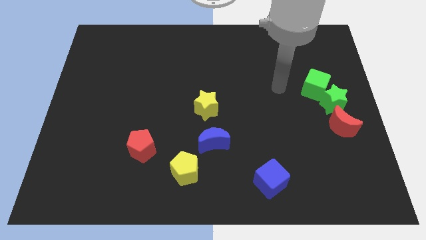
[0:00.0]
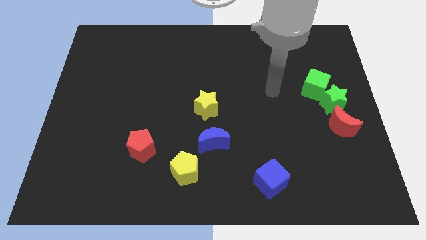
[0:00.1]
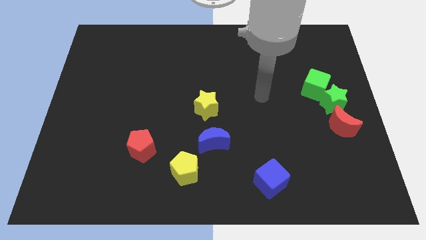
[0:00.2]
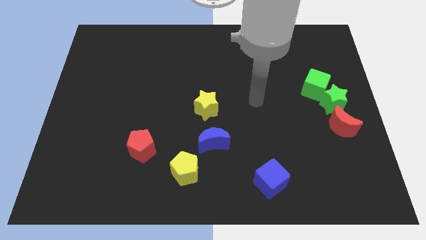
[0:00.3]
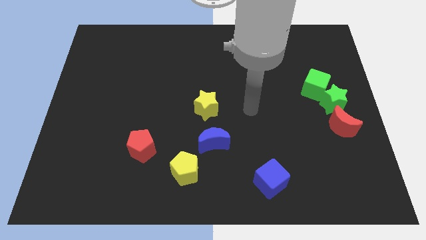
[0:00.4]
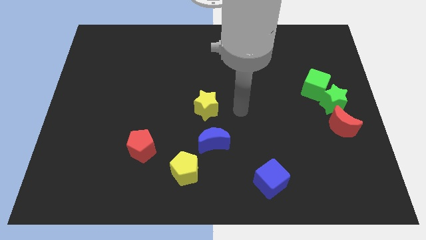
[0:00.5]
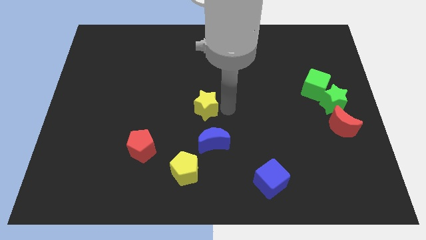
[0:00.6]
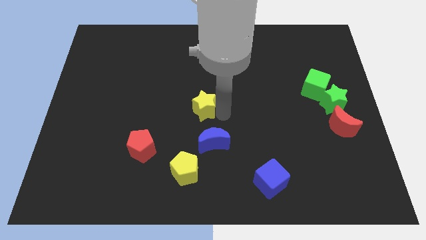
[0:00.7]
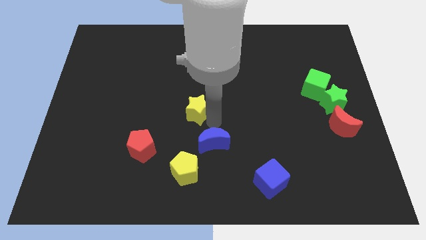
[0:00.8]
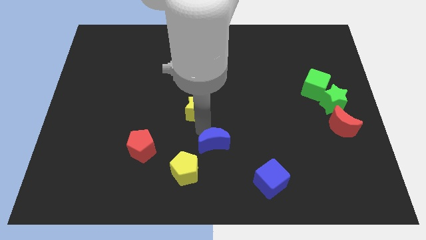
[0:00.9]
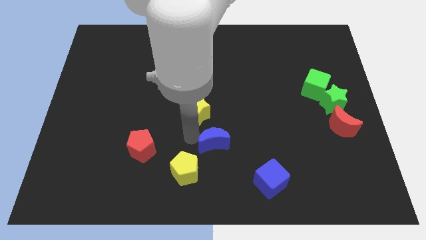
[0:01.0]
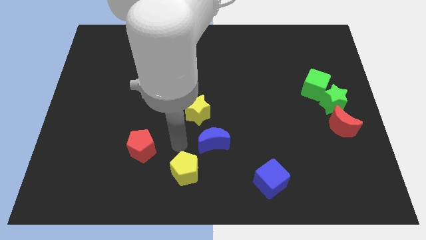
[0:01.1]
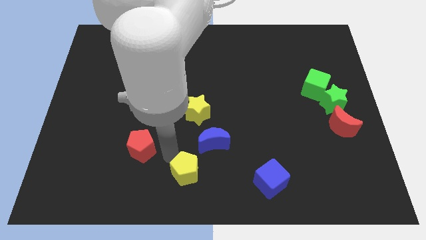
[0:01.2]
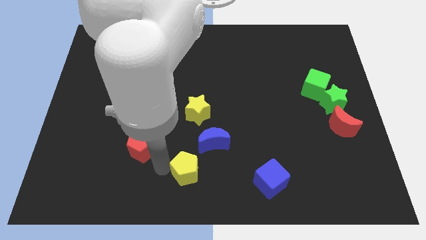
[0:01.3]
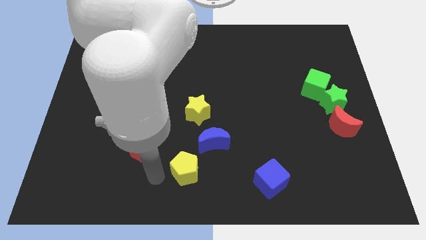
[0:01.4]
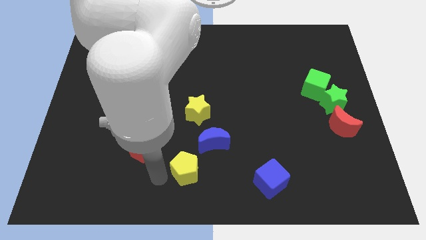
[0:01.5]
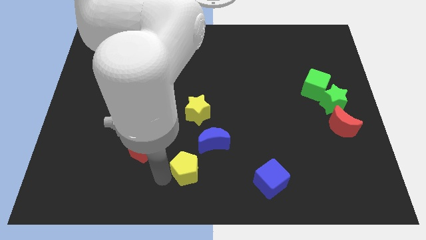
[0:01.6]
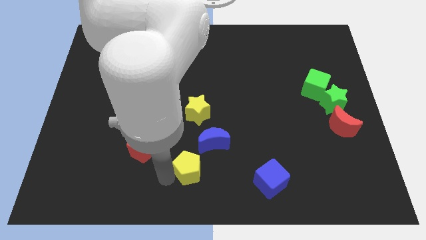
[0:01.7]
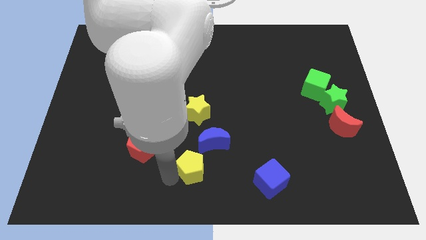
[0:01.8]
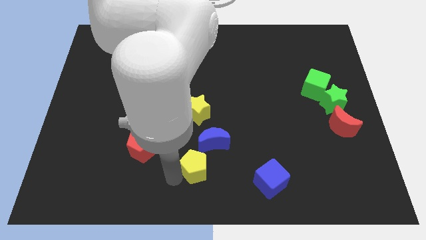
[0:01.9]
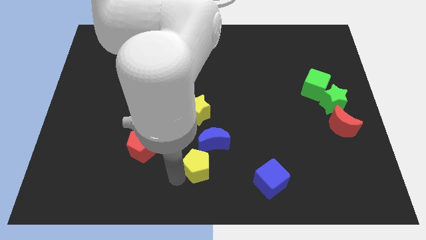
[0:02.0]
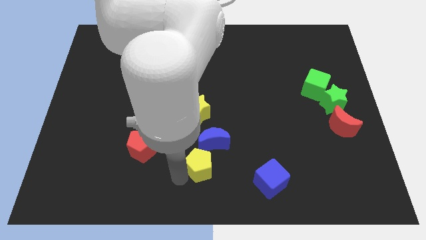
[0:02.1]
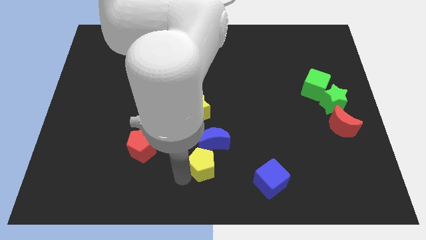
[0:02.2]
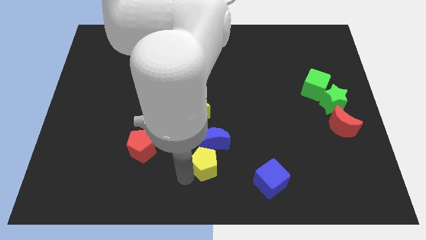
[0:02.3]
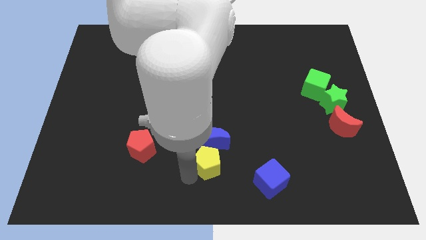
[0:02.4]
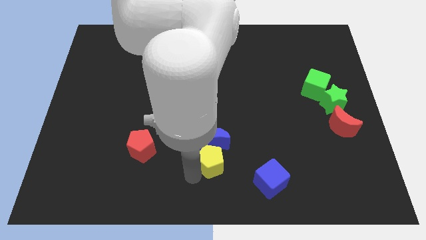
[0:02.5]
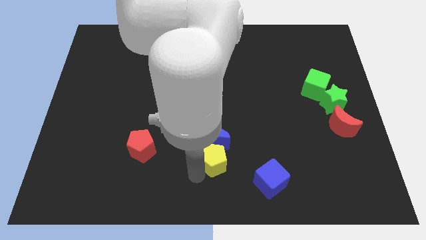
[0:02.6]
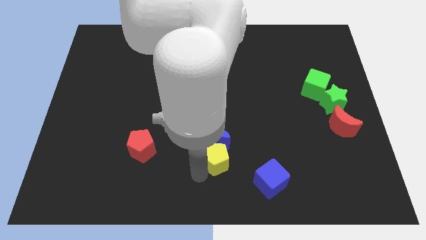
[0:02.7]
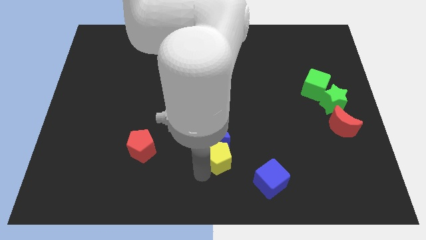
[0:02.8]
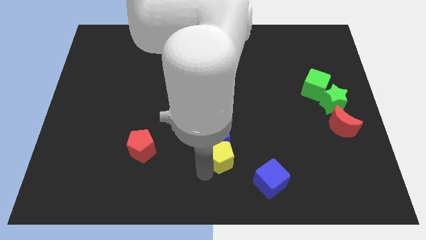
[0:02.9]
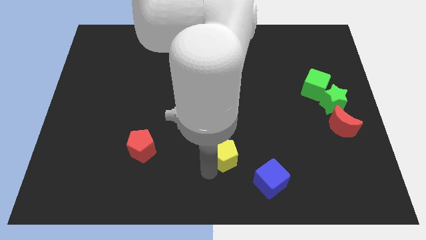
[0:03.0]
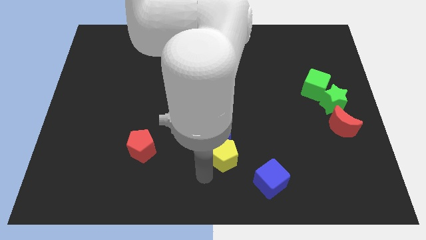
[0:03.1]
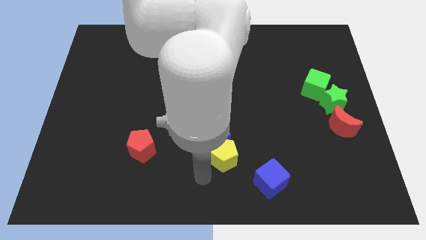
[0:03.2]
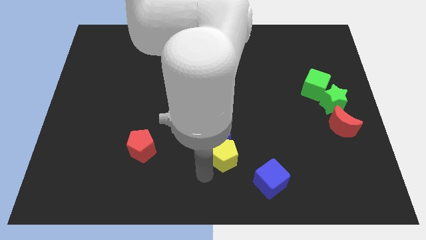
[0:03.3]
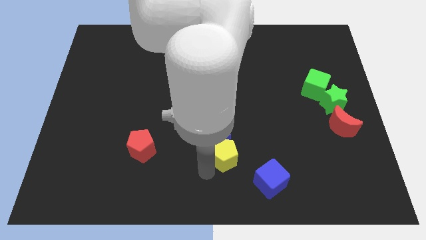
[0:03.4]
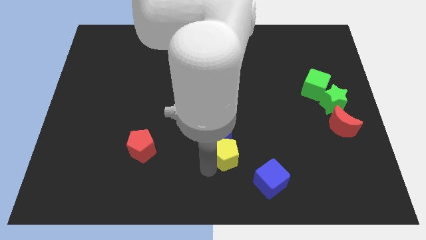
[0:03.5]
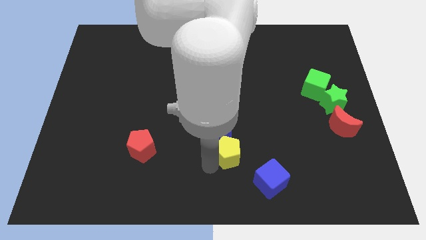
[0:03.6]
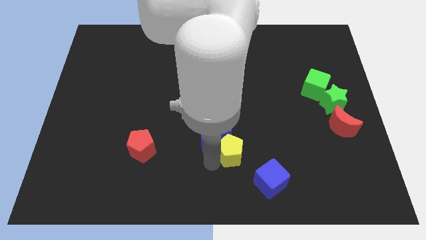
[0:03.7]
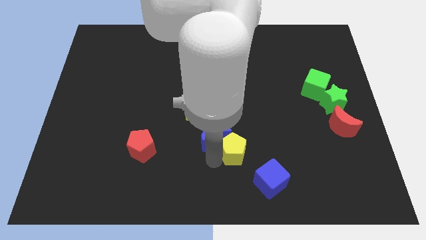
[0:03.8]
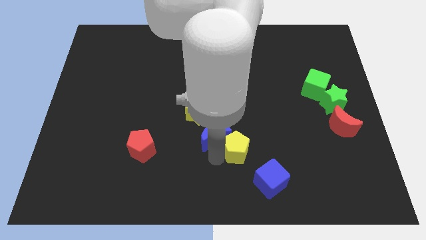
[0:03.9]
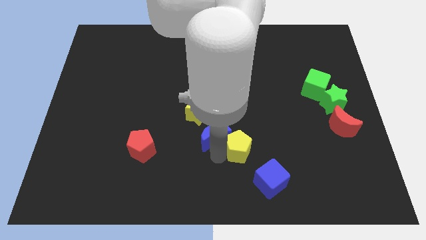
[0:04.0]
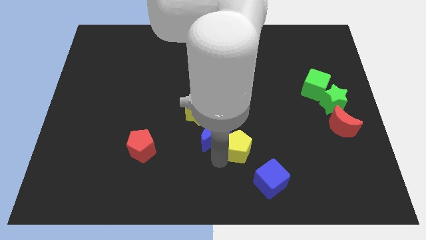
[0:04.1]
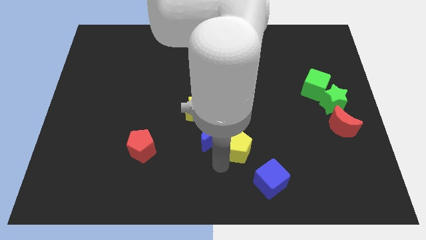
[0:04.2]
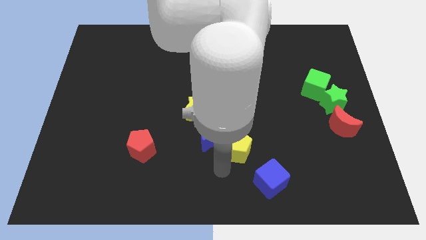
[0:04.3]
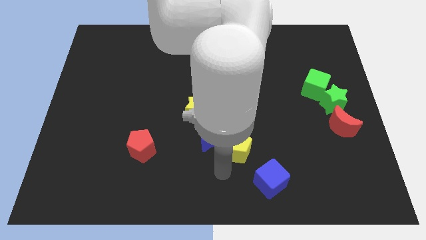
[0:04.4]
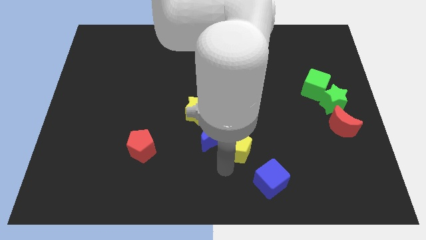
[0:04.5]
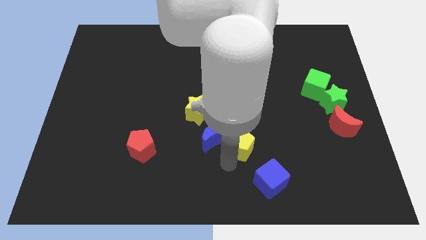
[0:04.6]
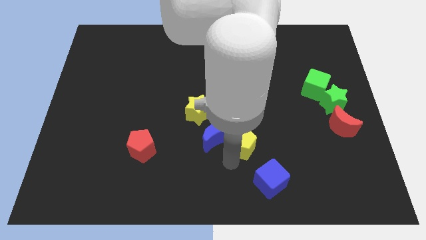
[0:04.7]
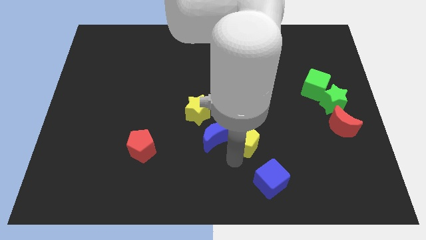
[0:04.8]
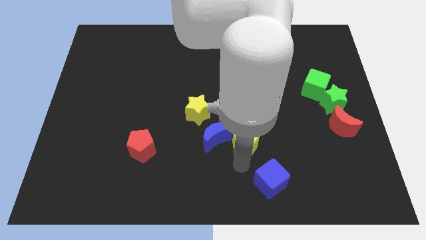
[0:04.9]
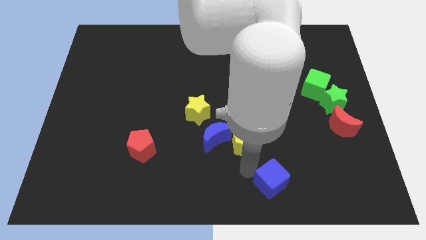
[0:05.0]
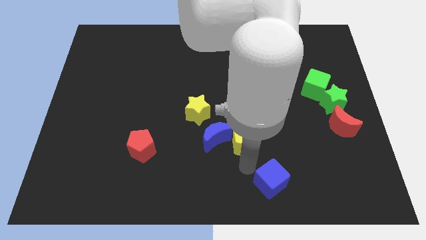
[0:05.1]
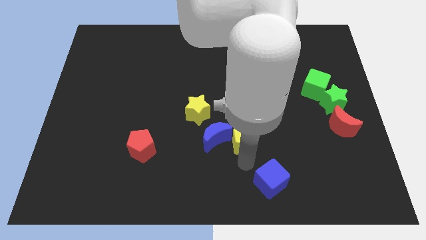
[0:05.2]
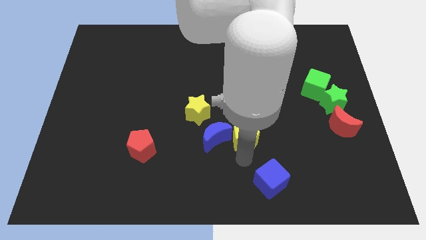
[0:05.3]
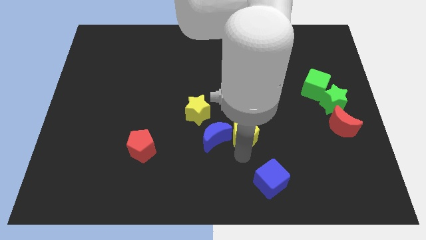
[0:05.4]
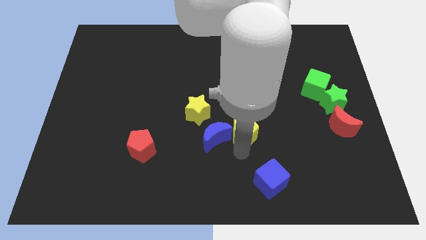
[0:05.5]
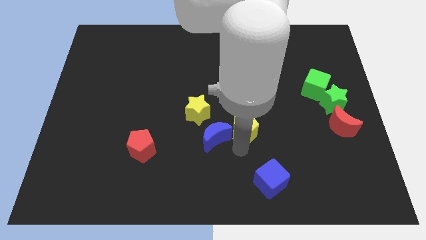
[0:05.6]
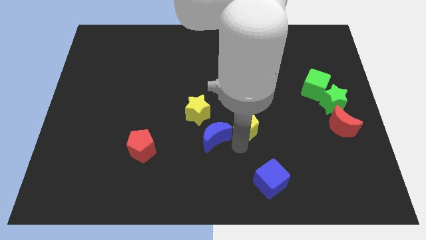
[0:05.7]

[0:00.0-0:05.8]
slide the yellow pentagon right of the yellow star

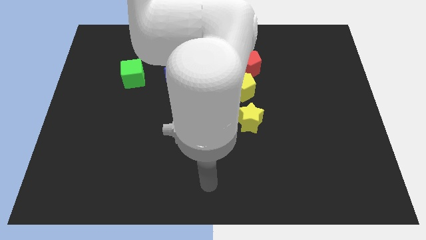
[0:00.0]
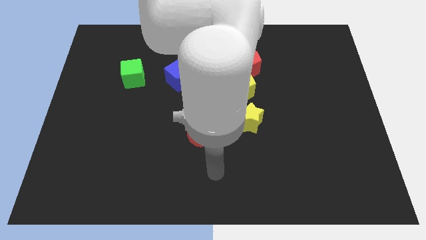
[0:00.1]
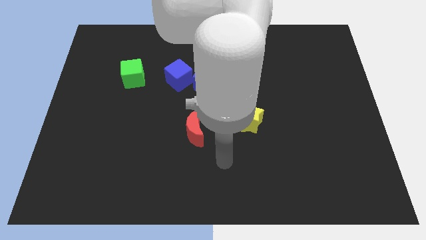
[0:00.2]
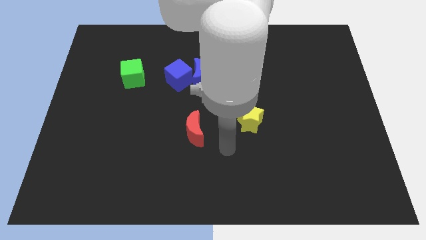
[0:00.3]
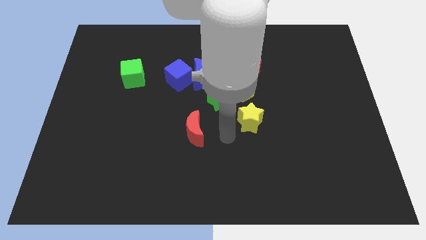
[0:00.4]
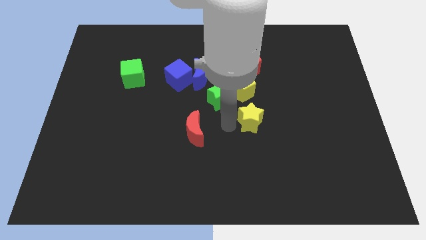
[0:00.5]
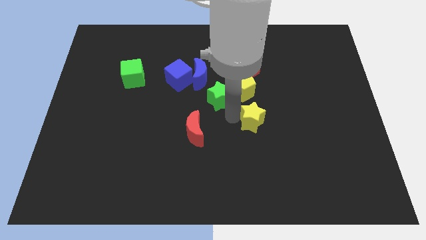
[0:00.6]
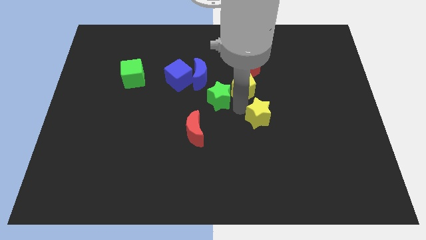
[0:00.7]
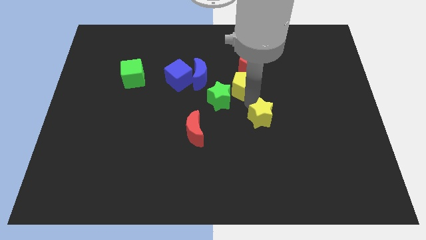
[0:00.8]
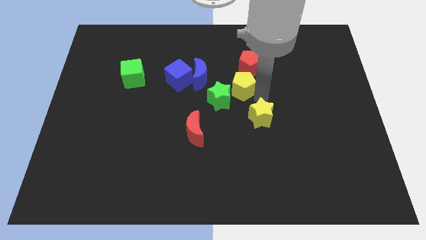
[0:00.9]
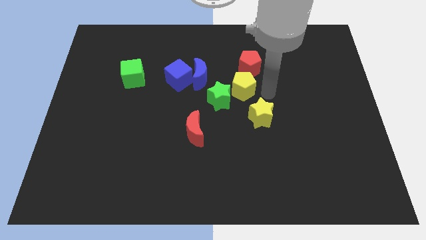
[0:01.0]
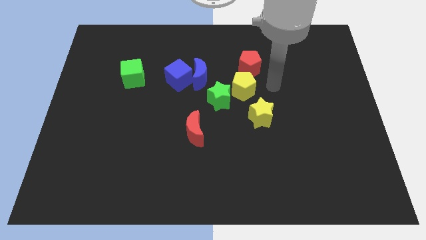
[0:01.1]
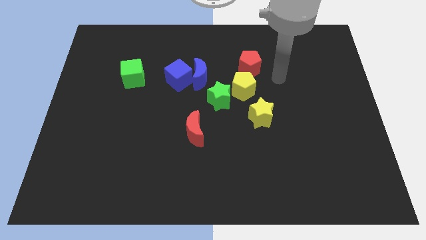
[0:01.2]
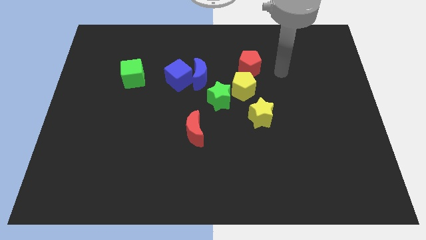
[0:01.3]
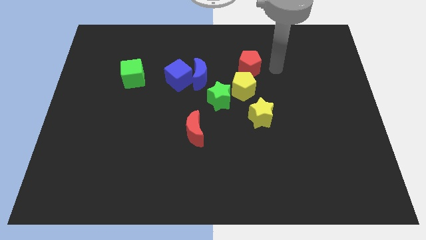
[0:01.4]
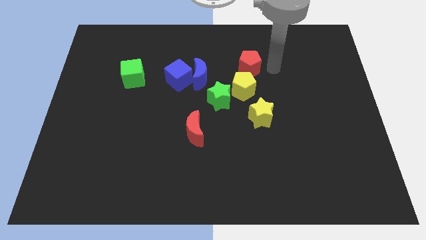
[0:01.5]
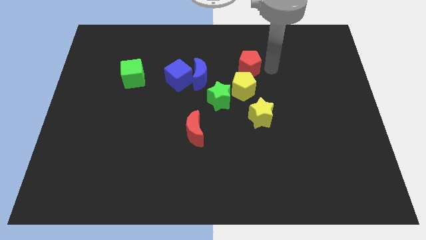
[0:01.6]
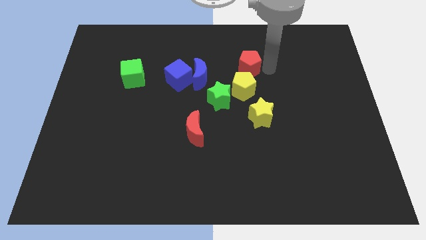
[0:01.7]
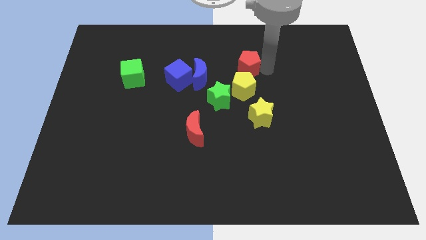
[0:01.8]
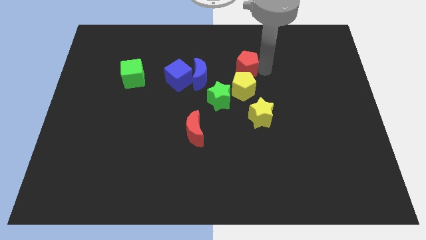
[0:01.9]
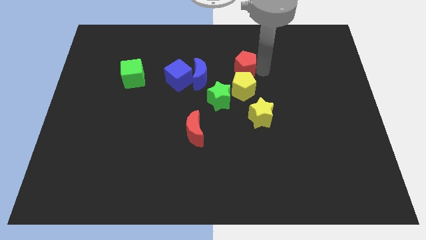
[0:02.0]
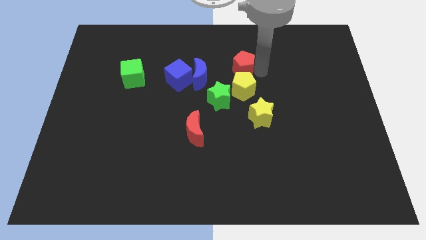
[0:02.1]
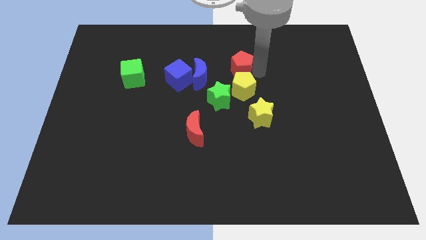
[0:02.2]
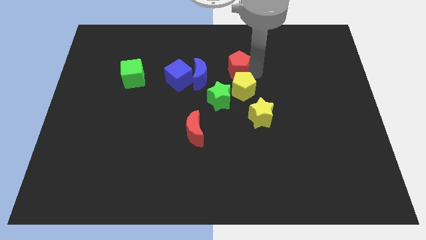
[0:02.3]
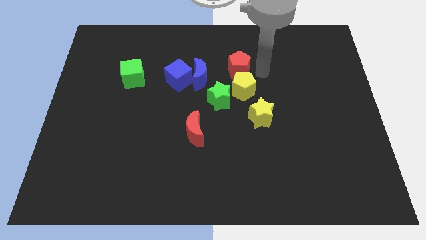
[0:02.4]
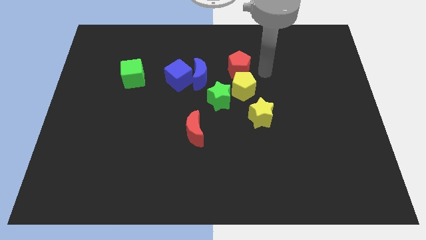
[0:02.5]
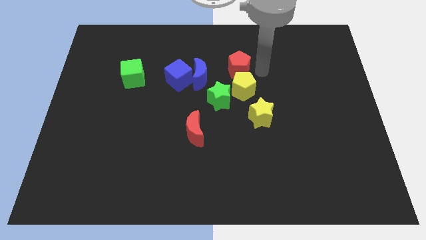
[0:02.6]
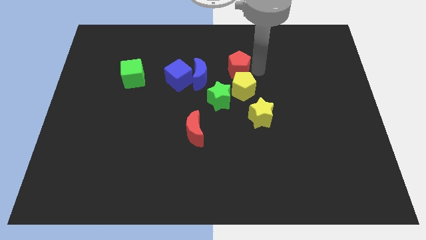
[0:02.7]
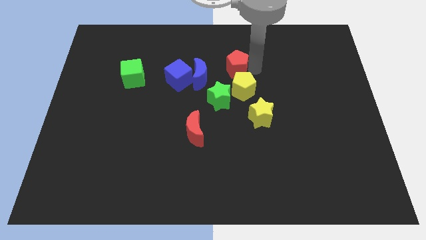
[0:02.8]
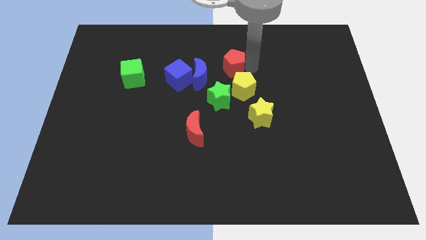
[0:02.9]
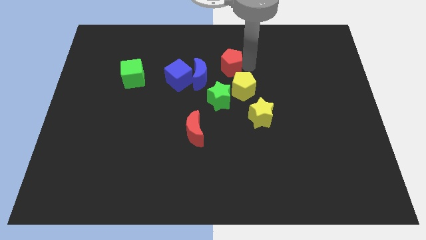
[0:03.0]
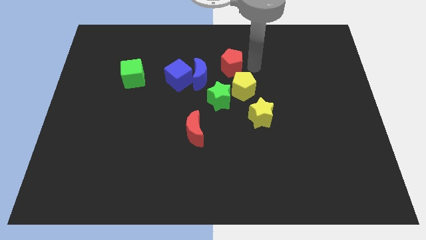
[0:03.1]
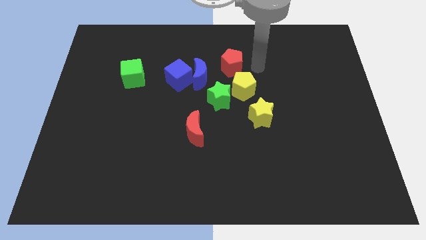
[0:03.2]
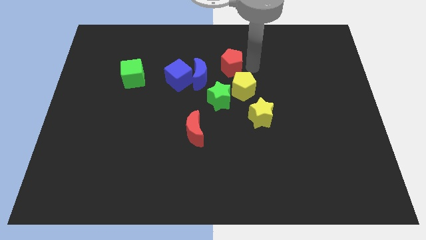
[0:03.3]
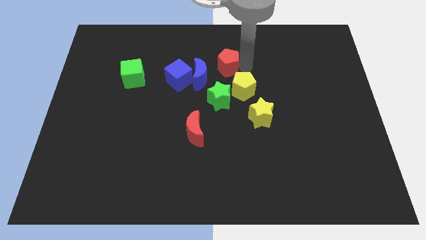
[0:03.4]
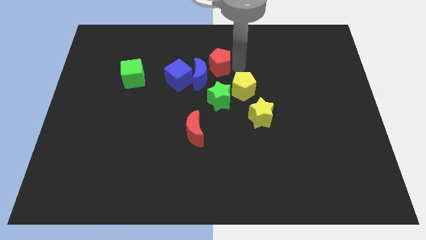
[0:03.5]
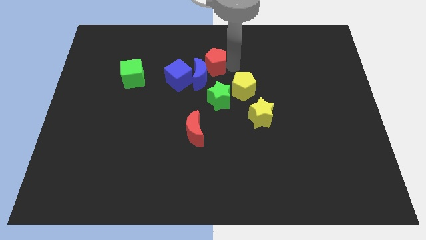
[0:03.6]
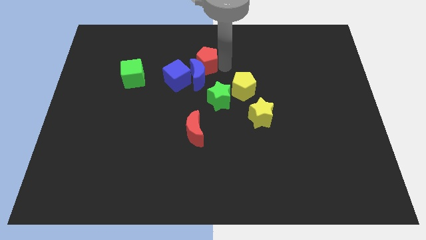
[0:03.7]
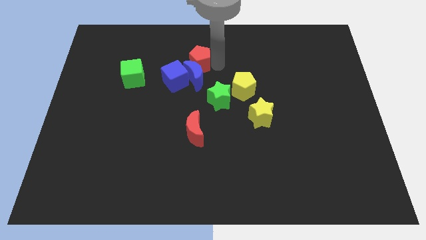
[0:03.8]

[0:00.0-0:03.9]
move the red pentagon diagonally up and to the left of the blue moon
